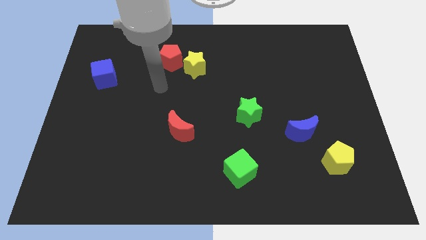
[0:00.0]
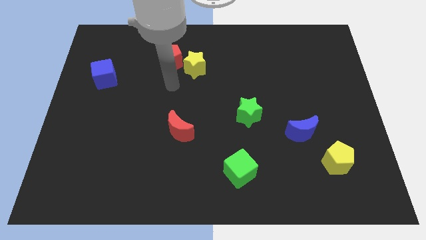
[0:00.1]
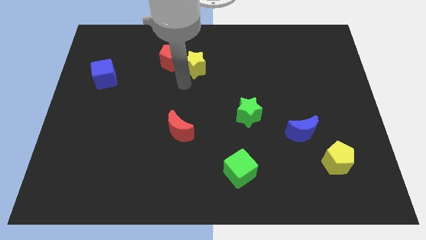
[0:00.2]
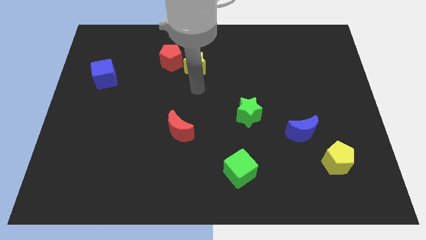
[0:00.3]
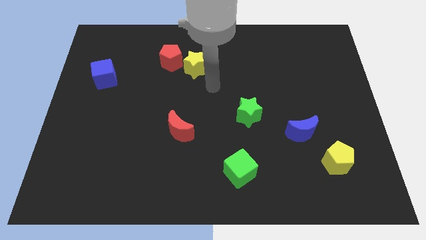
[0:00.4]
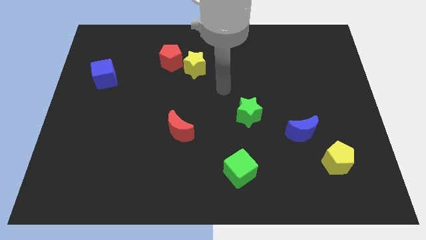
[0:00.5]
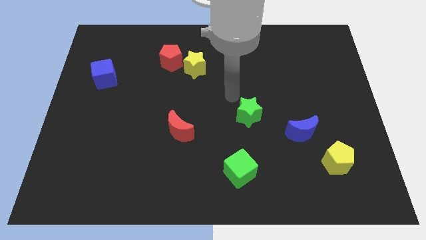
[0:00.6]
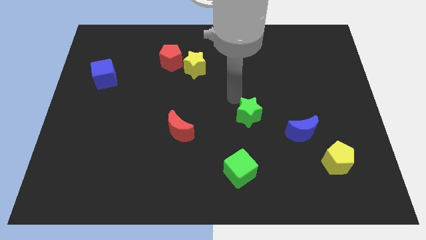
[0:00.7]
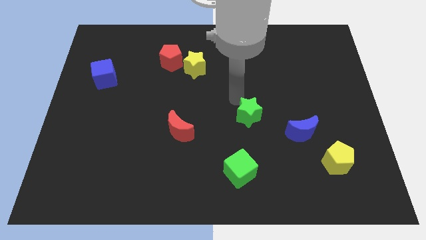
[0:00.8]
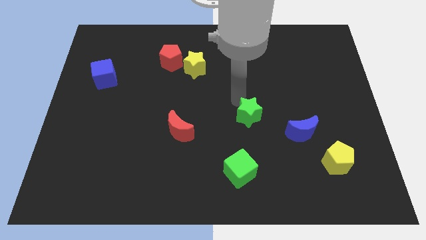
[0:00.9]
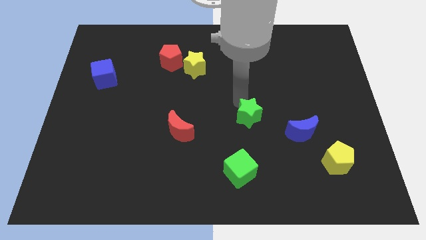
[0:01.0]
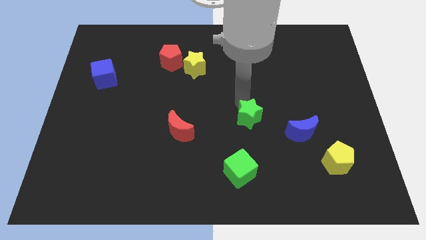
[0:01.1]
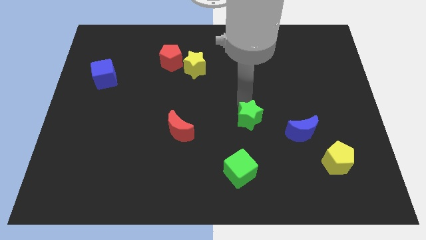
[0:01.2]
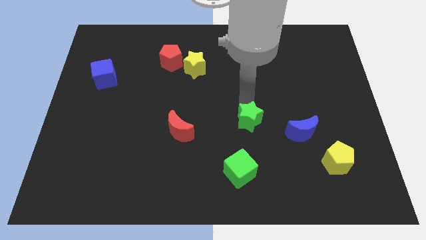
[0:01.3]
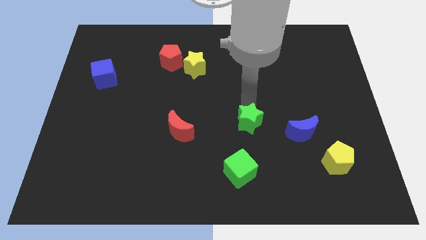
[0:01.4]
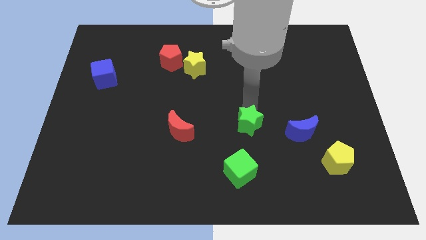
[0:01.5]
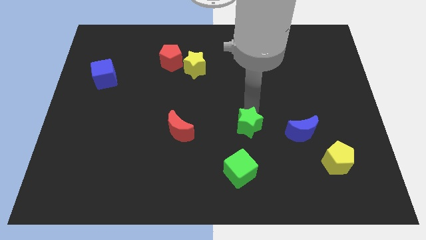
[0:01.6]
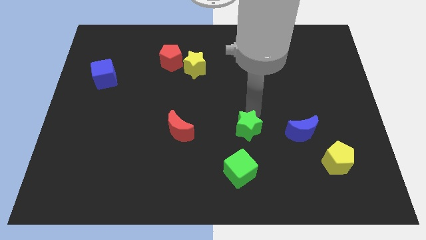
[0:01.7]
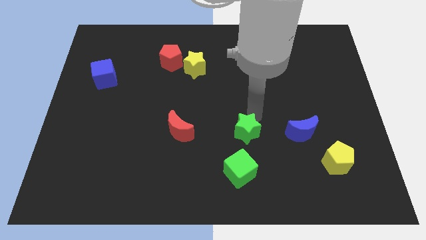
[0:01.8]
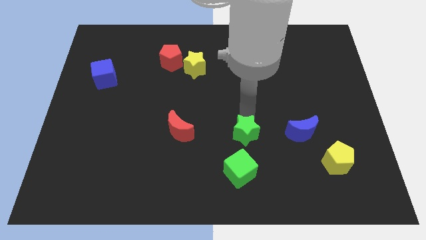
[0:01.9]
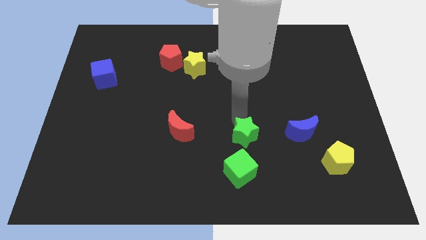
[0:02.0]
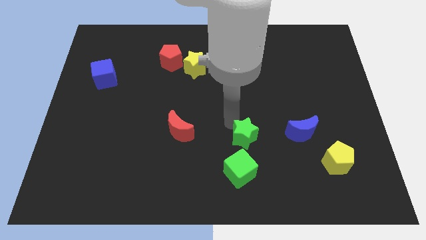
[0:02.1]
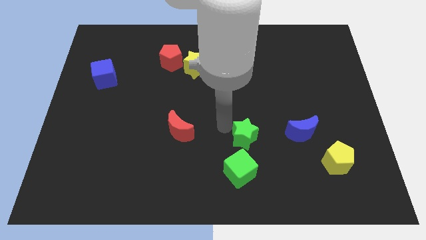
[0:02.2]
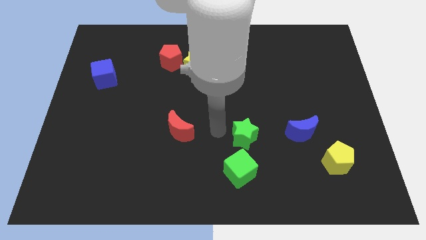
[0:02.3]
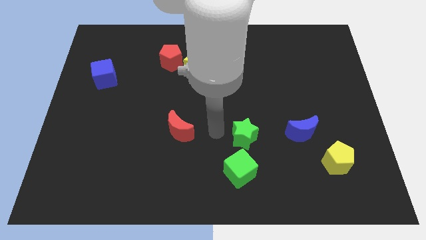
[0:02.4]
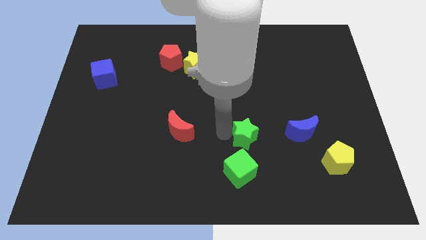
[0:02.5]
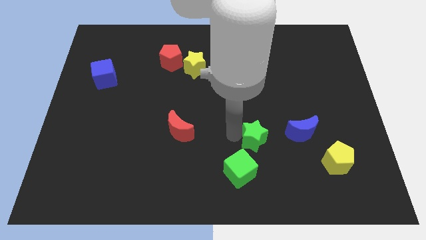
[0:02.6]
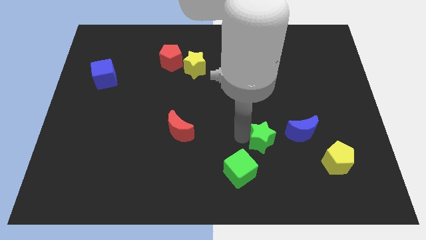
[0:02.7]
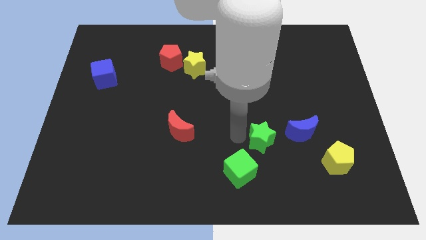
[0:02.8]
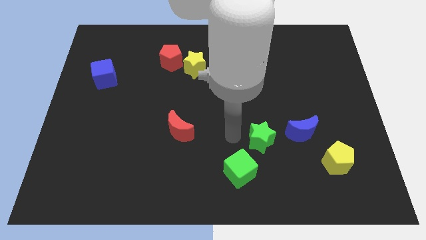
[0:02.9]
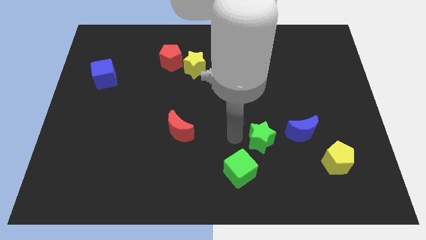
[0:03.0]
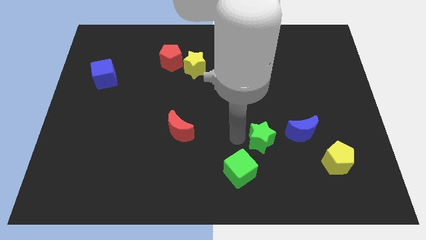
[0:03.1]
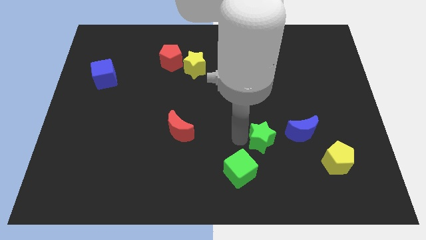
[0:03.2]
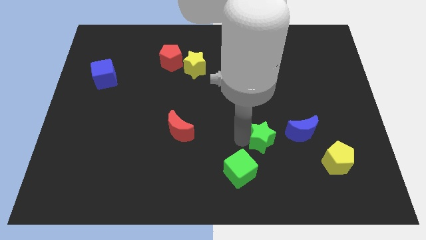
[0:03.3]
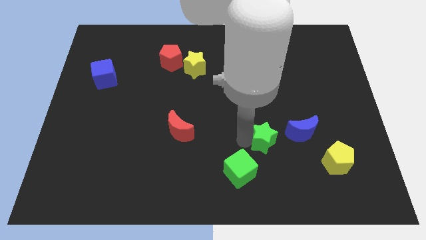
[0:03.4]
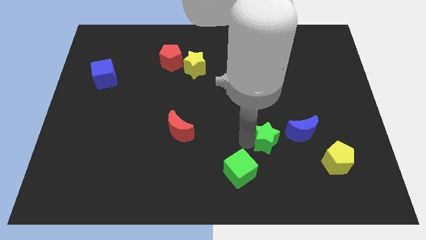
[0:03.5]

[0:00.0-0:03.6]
move the green star down and then to the right a little

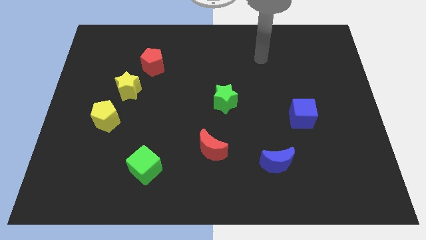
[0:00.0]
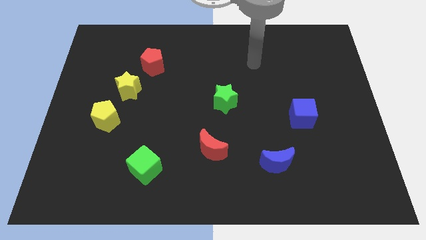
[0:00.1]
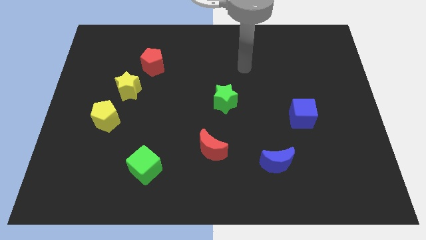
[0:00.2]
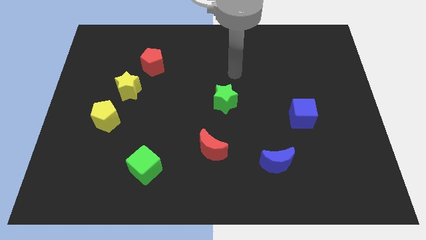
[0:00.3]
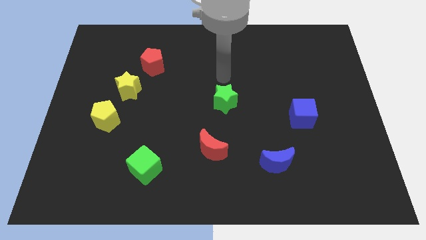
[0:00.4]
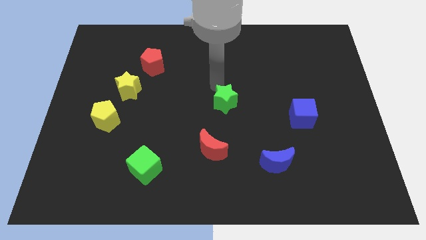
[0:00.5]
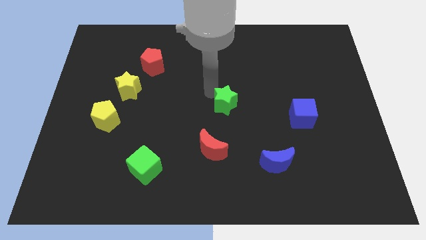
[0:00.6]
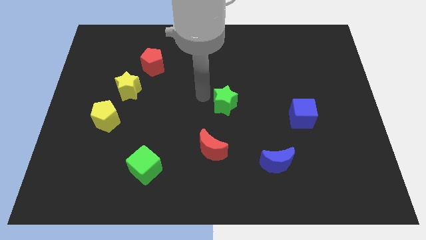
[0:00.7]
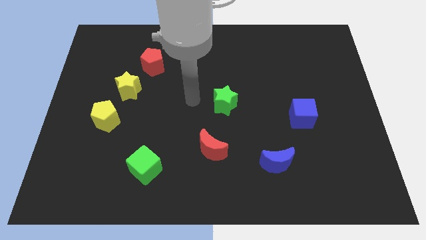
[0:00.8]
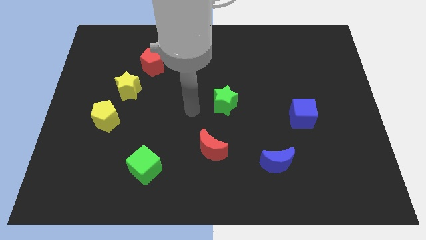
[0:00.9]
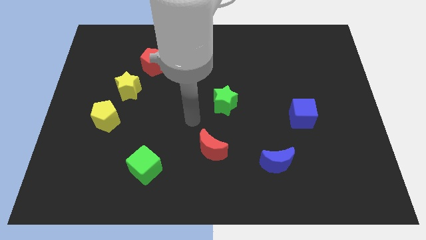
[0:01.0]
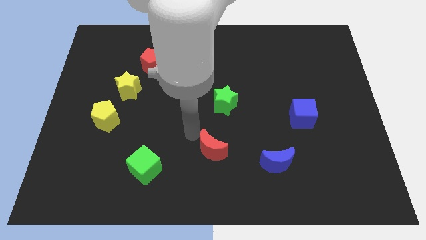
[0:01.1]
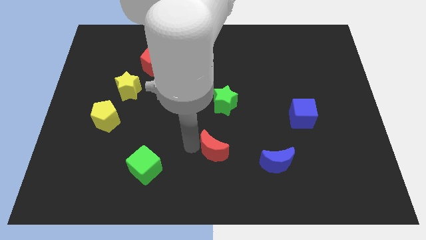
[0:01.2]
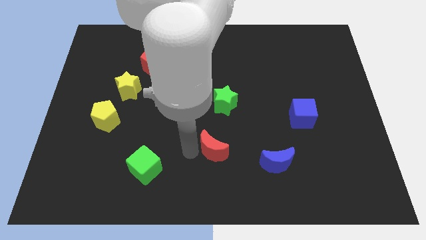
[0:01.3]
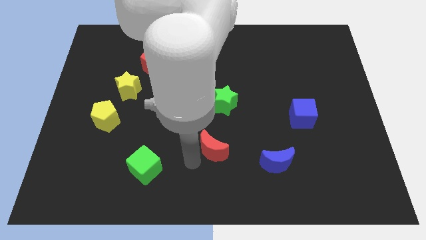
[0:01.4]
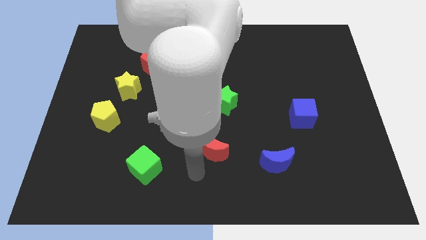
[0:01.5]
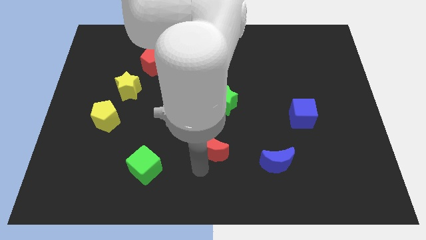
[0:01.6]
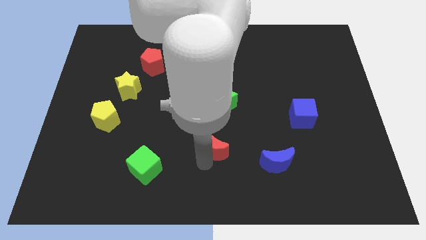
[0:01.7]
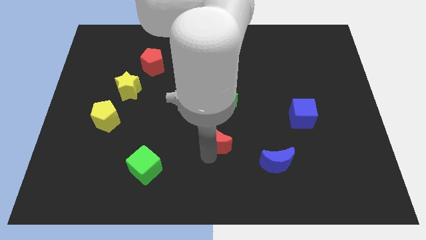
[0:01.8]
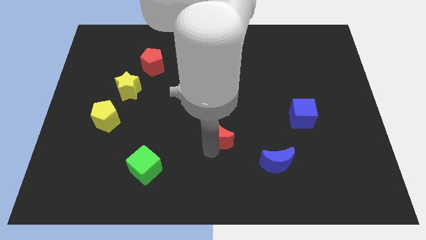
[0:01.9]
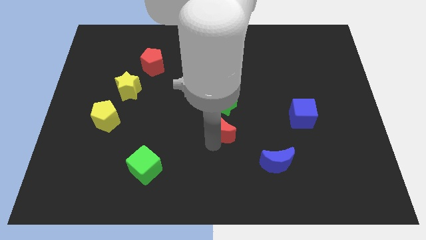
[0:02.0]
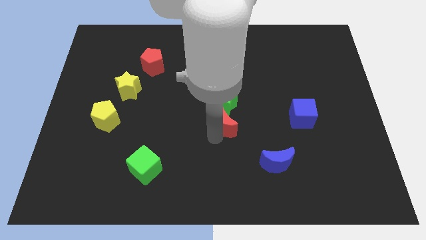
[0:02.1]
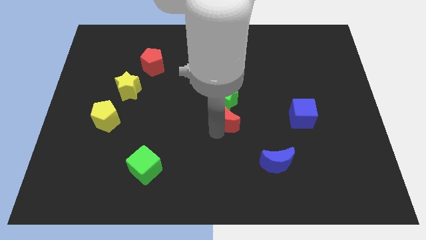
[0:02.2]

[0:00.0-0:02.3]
slide the red moon diagonally upwards and to the right a little bit

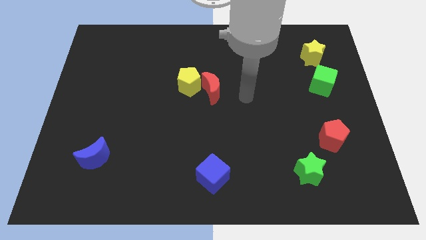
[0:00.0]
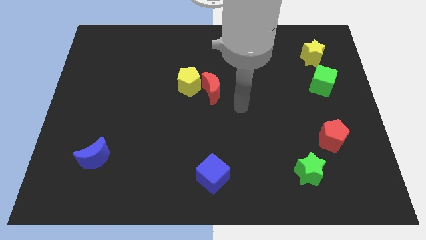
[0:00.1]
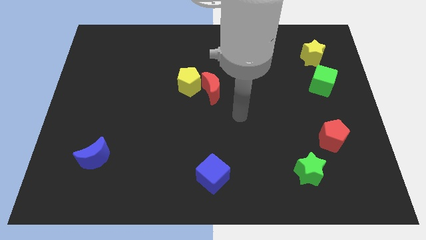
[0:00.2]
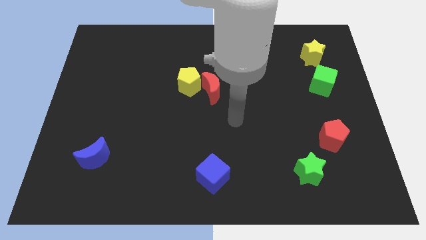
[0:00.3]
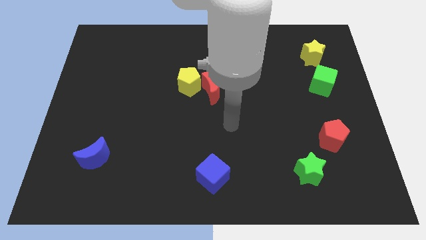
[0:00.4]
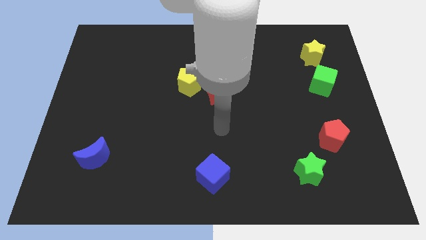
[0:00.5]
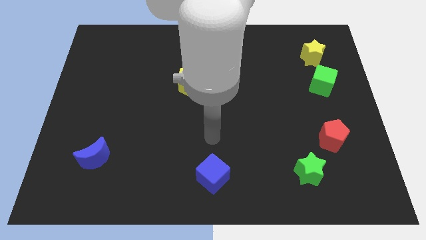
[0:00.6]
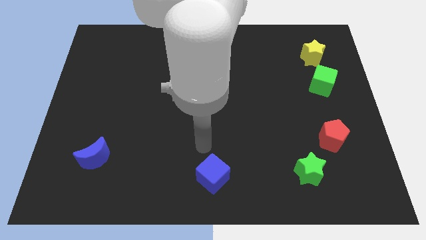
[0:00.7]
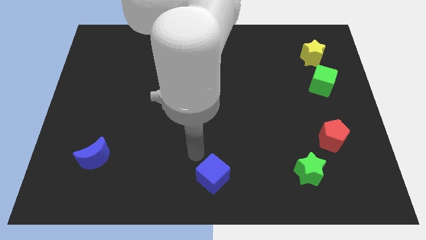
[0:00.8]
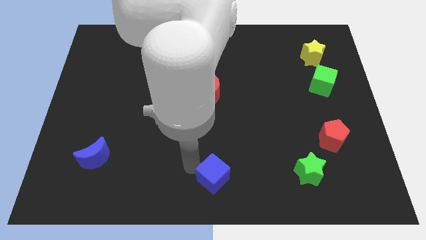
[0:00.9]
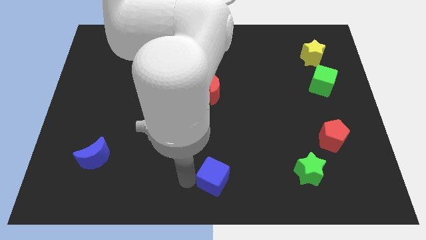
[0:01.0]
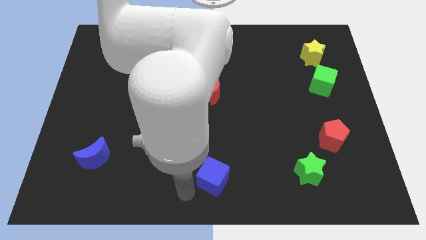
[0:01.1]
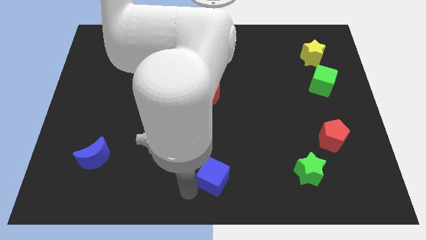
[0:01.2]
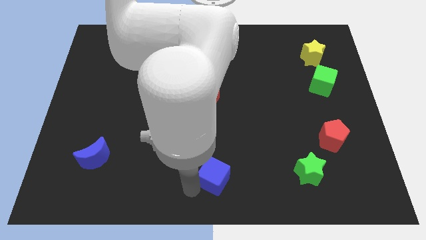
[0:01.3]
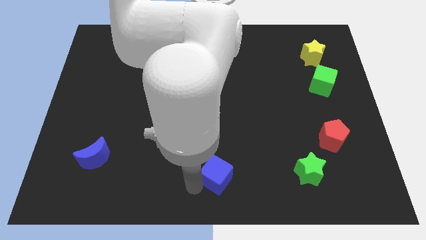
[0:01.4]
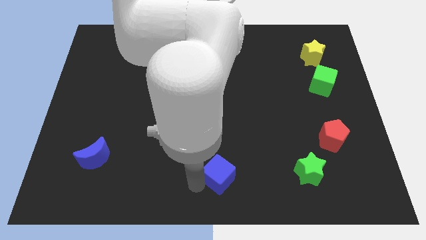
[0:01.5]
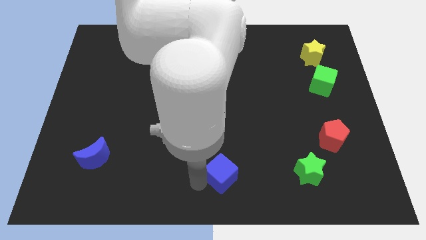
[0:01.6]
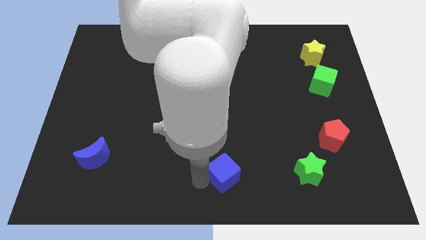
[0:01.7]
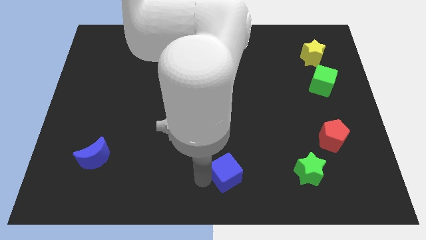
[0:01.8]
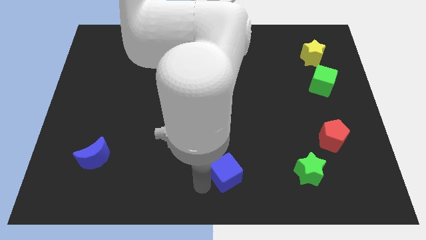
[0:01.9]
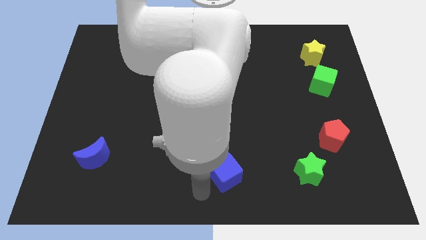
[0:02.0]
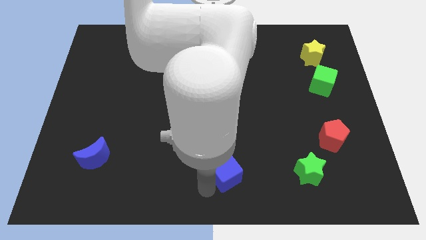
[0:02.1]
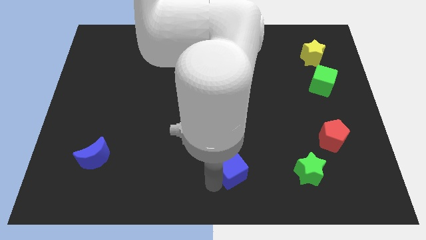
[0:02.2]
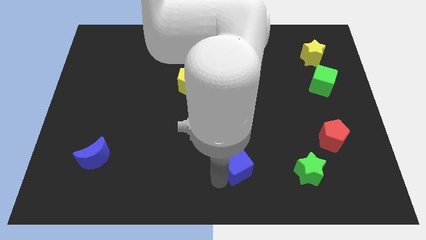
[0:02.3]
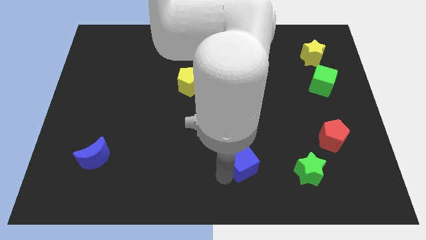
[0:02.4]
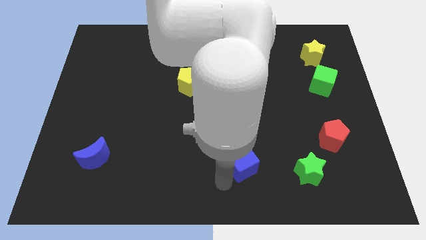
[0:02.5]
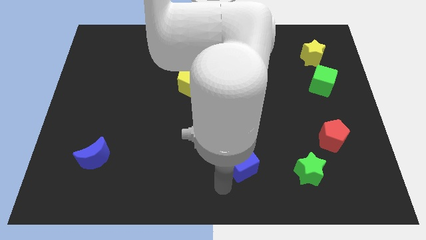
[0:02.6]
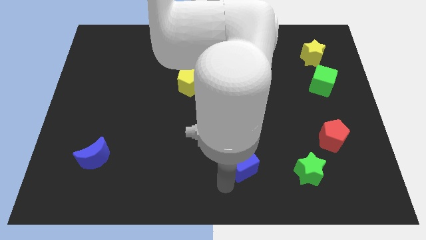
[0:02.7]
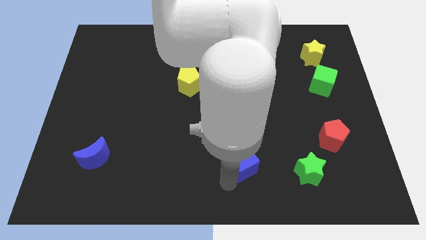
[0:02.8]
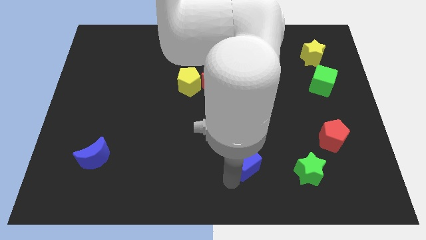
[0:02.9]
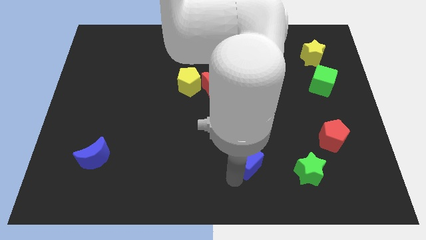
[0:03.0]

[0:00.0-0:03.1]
slightly move the blue cube up and to the right
